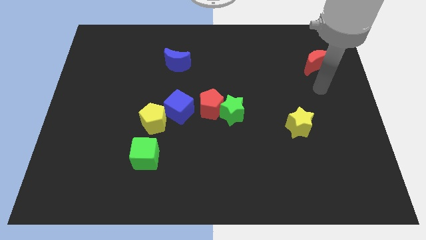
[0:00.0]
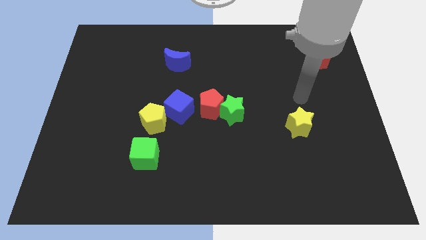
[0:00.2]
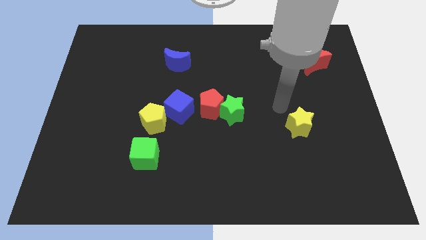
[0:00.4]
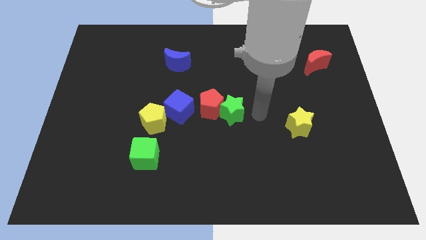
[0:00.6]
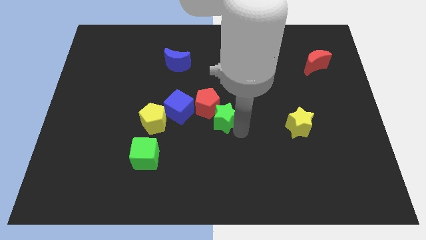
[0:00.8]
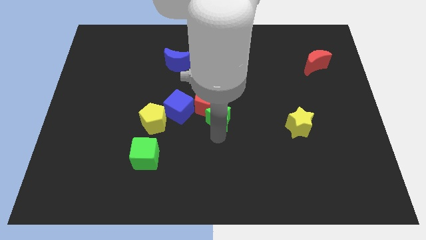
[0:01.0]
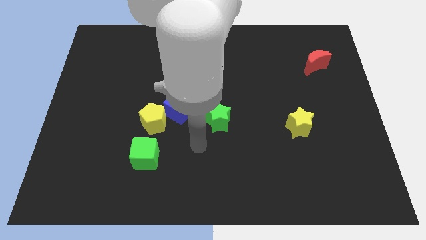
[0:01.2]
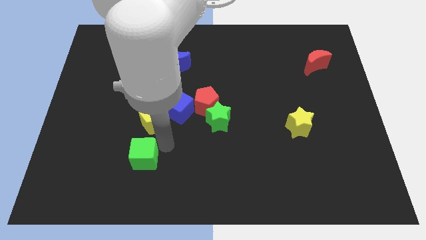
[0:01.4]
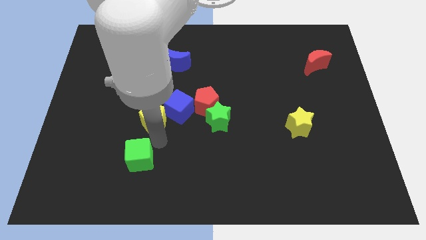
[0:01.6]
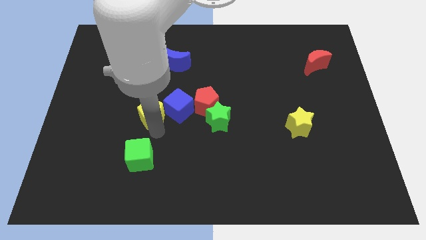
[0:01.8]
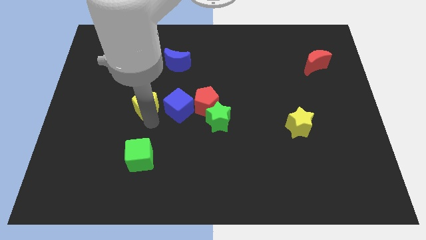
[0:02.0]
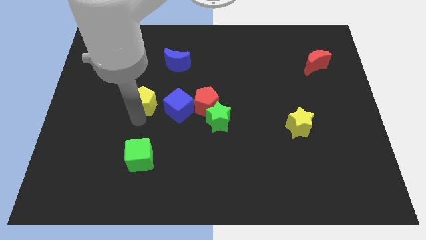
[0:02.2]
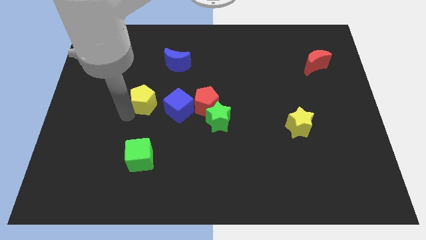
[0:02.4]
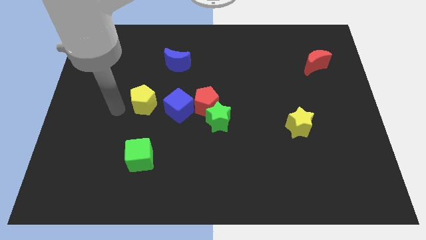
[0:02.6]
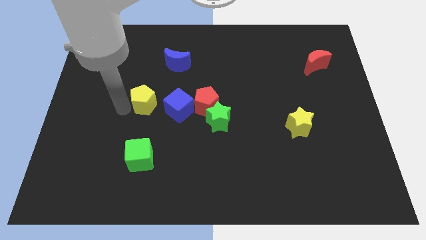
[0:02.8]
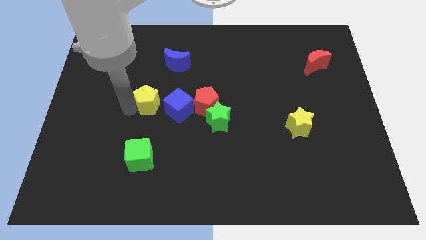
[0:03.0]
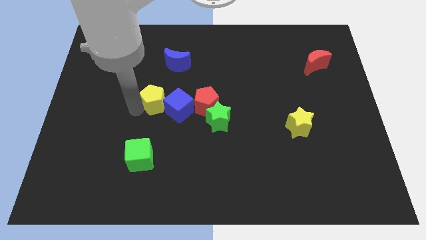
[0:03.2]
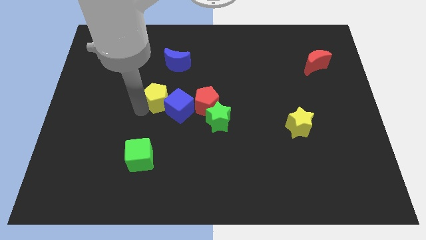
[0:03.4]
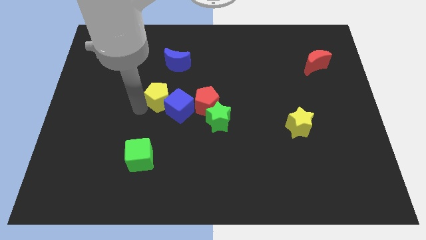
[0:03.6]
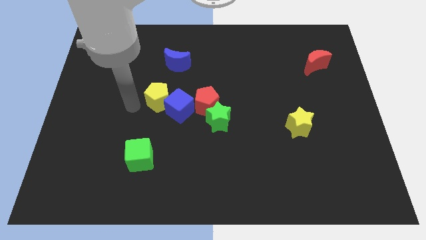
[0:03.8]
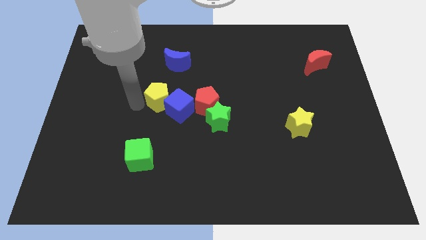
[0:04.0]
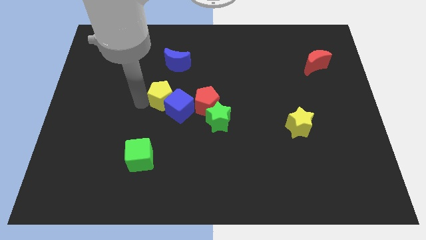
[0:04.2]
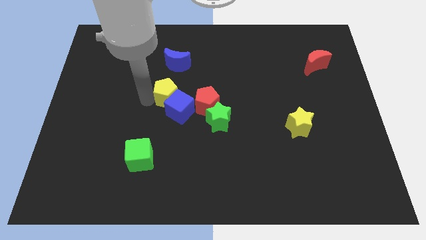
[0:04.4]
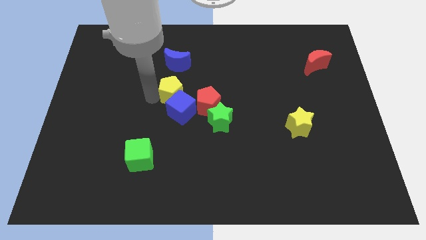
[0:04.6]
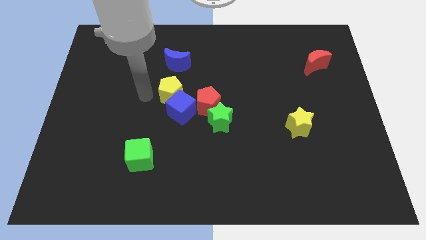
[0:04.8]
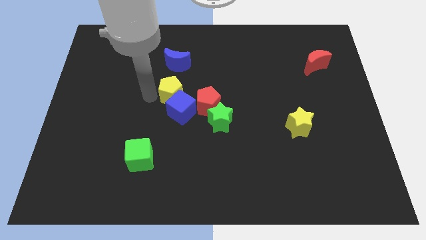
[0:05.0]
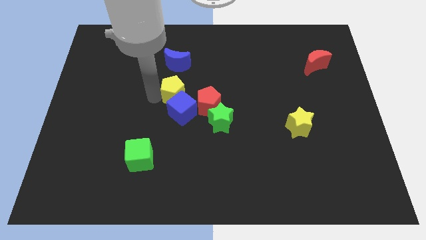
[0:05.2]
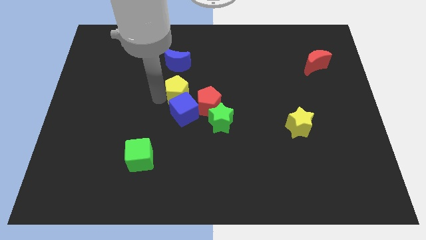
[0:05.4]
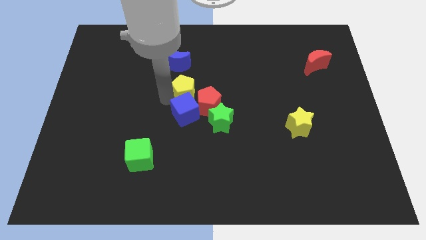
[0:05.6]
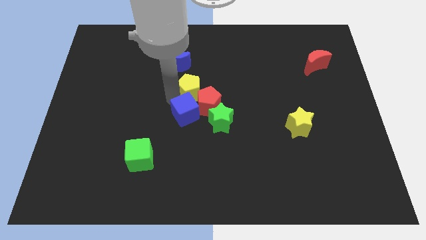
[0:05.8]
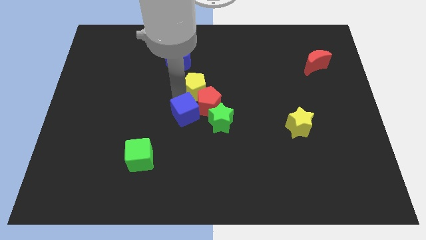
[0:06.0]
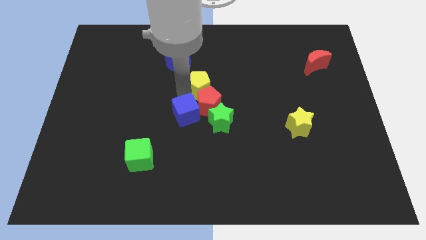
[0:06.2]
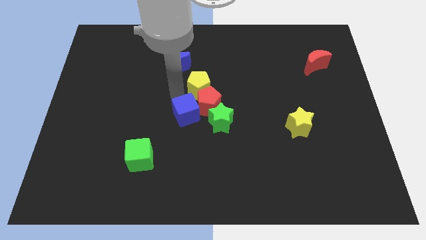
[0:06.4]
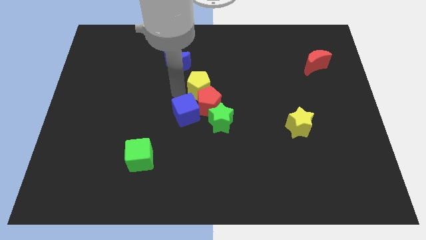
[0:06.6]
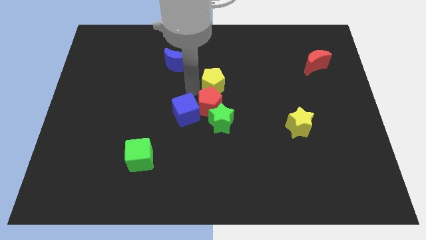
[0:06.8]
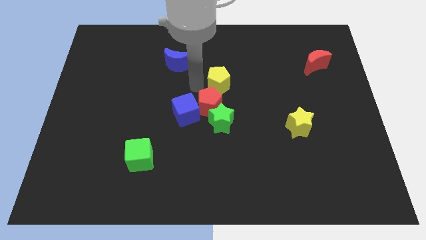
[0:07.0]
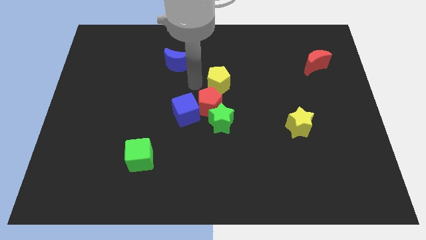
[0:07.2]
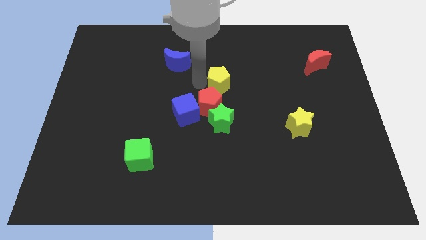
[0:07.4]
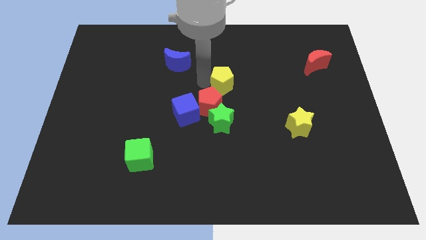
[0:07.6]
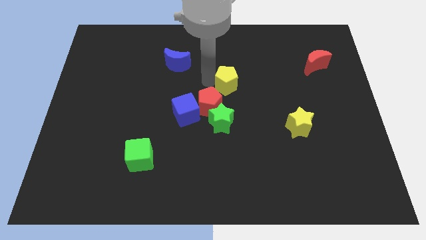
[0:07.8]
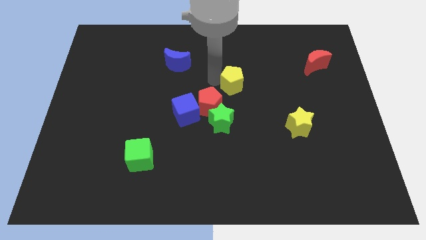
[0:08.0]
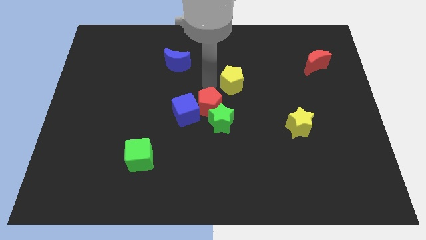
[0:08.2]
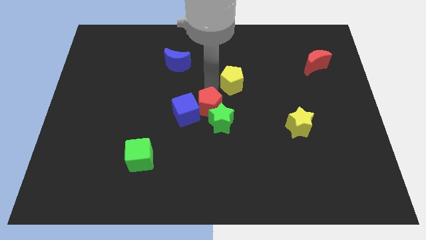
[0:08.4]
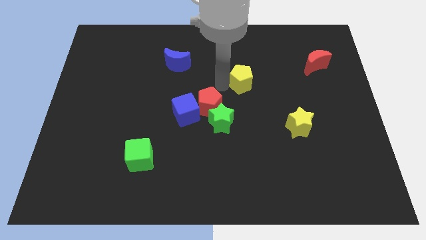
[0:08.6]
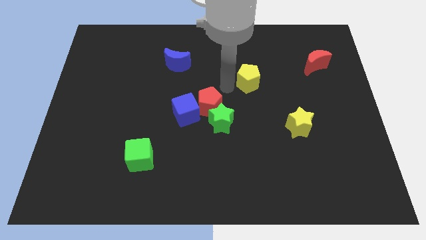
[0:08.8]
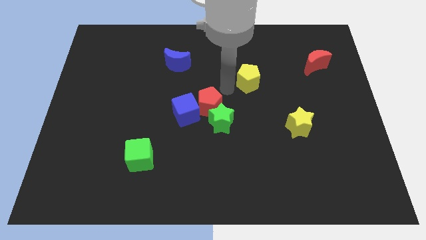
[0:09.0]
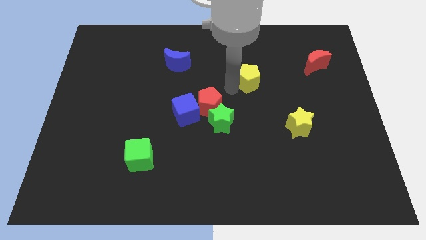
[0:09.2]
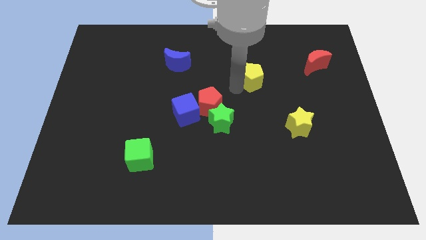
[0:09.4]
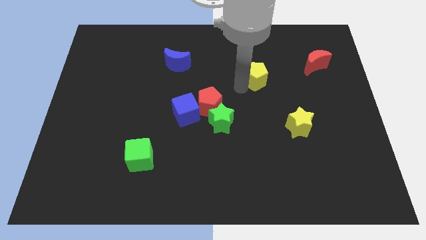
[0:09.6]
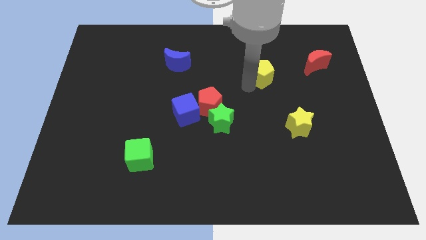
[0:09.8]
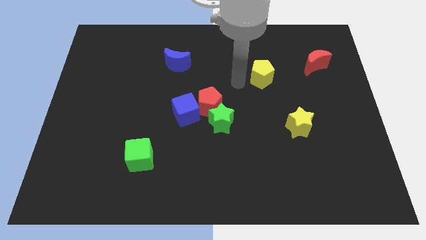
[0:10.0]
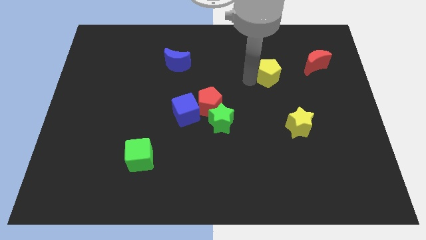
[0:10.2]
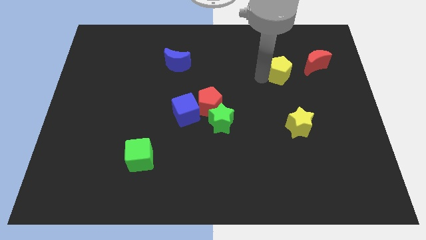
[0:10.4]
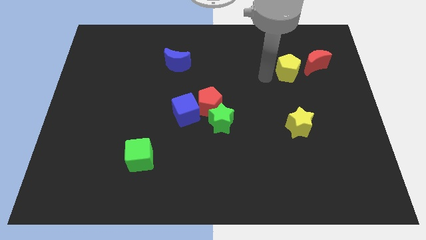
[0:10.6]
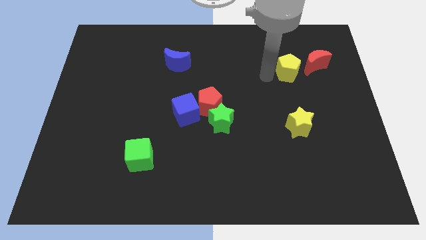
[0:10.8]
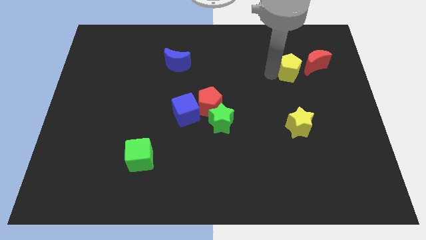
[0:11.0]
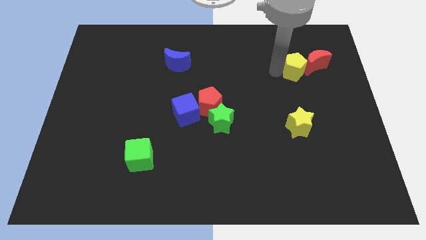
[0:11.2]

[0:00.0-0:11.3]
put the yellow pentagon next to the red moon

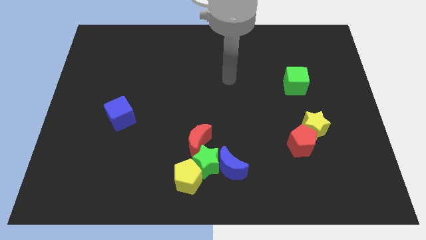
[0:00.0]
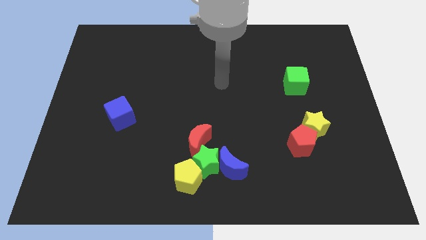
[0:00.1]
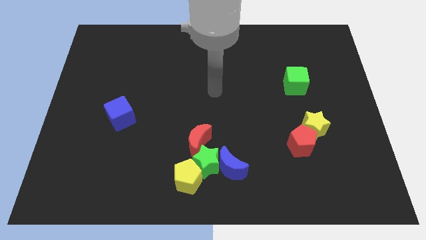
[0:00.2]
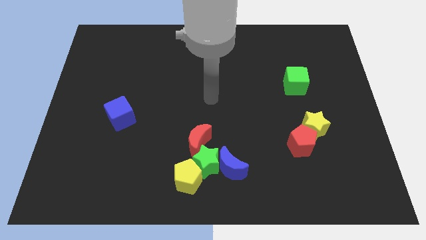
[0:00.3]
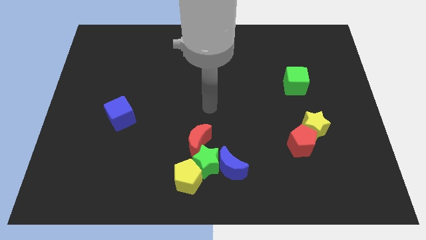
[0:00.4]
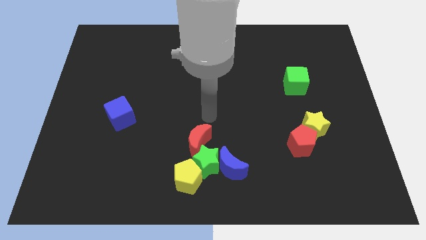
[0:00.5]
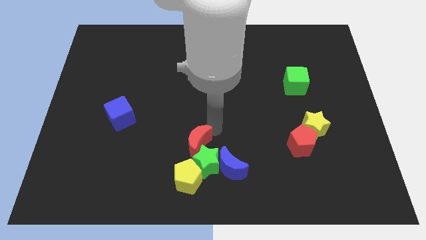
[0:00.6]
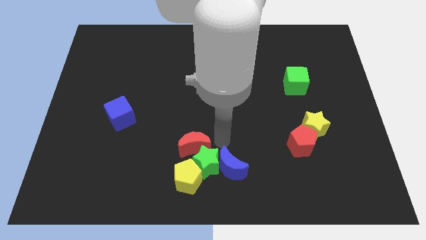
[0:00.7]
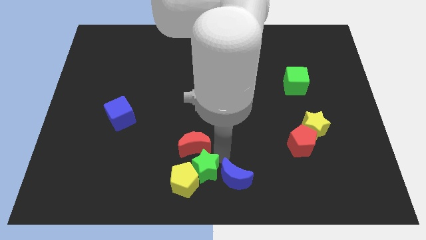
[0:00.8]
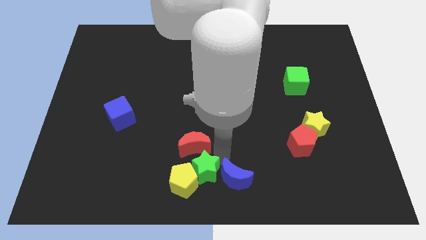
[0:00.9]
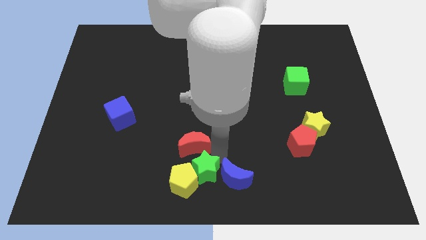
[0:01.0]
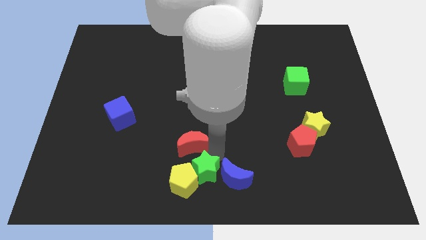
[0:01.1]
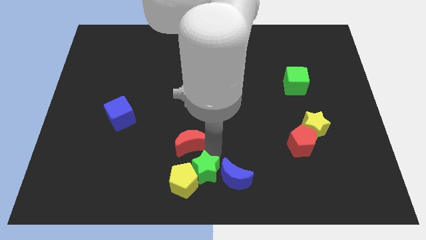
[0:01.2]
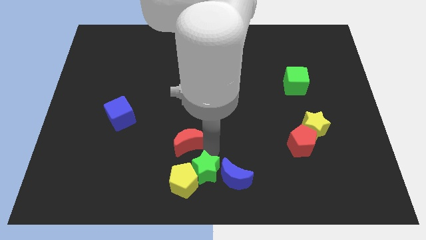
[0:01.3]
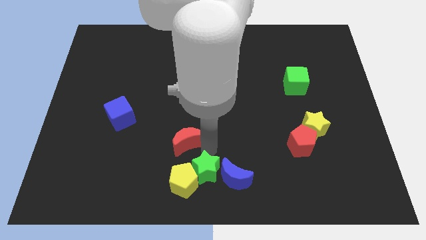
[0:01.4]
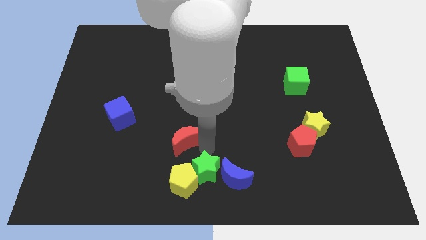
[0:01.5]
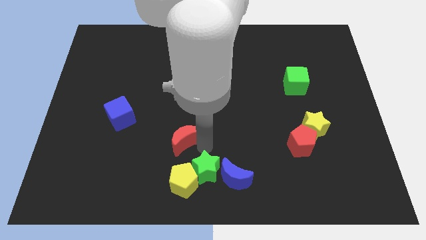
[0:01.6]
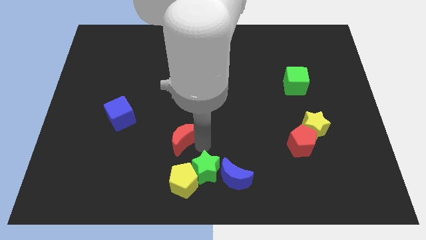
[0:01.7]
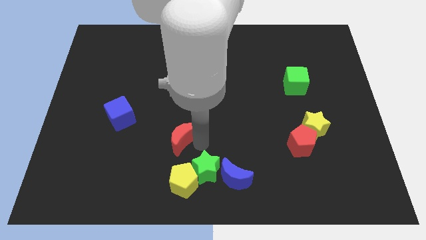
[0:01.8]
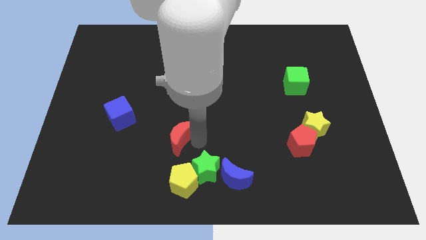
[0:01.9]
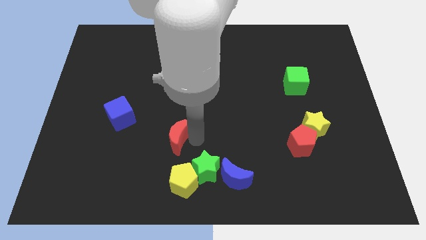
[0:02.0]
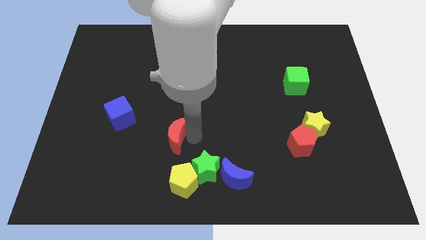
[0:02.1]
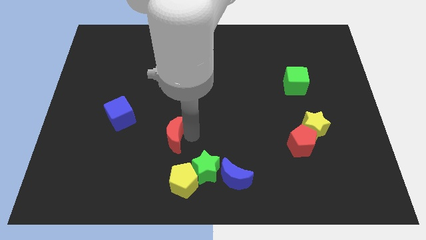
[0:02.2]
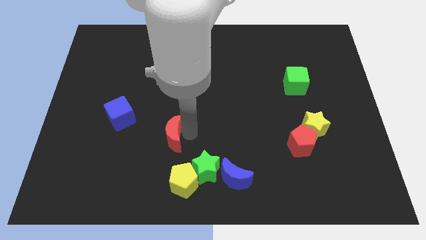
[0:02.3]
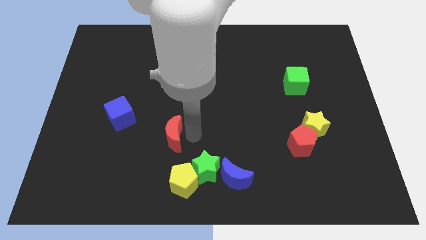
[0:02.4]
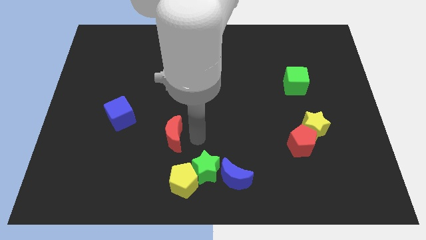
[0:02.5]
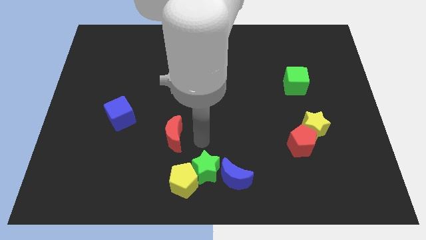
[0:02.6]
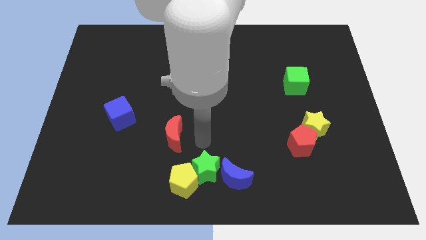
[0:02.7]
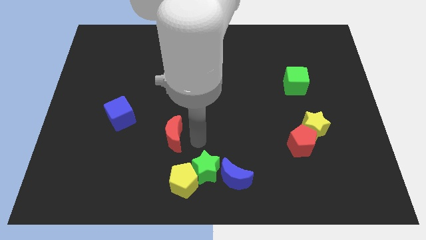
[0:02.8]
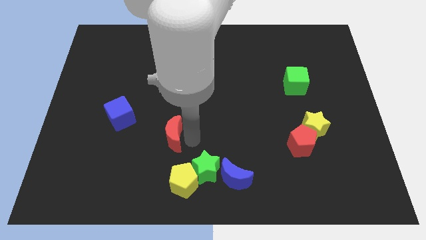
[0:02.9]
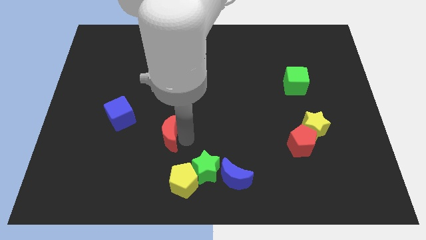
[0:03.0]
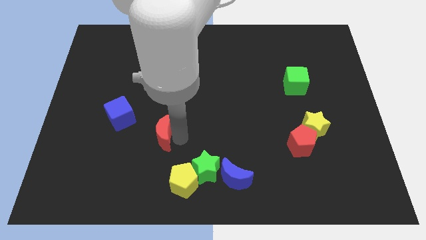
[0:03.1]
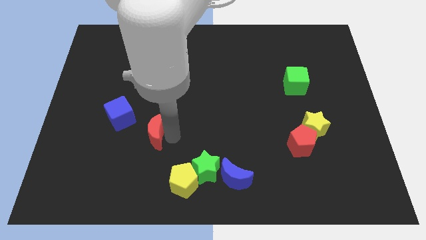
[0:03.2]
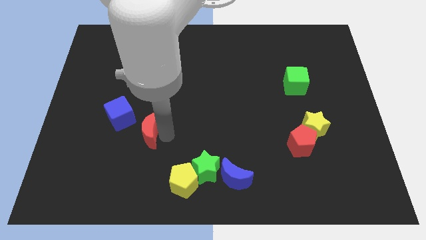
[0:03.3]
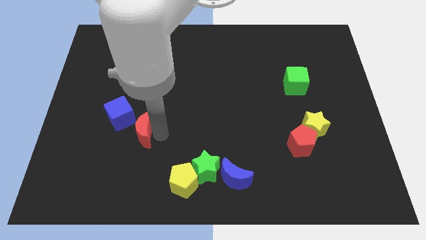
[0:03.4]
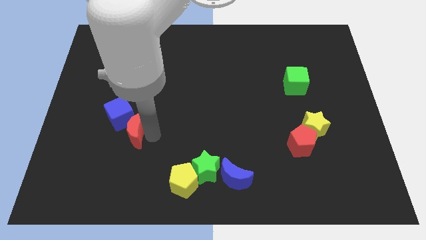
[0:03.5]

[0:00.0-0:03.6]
move the red moon to the blue cube
